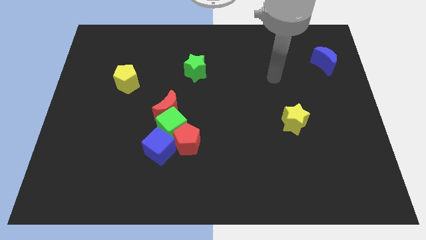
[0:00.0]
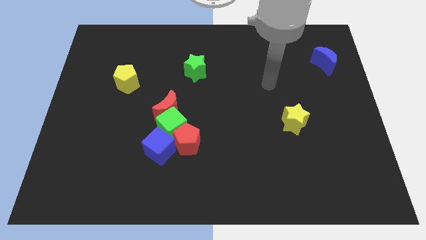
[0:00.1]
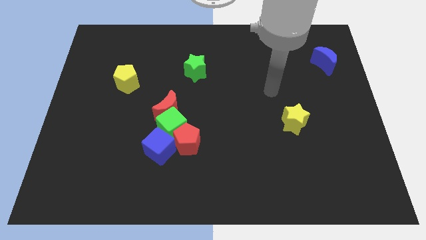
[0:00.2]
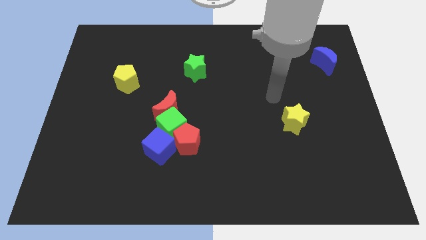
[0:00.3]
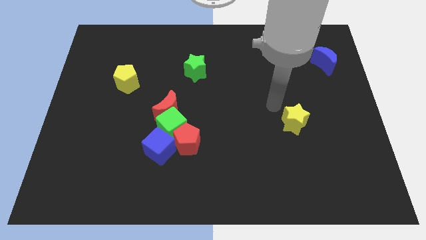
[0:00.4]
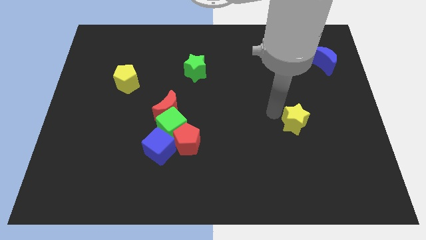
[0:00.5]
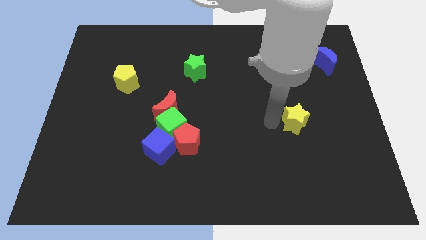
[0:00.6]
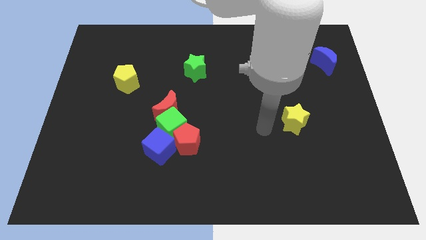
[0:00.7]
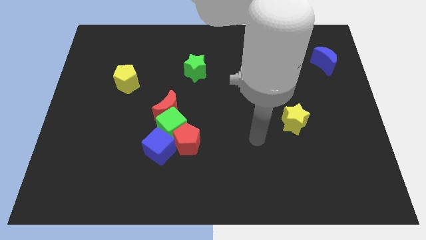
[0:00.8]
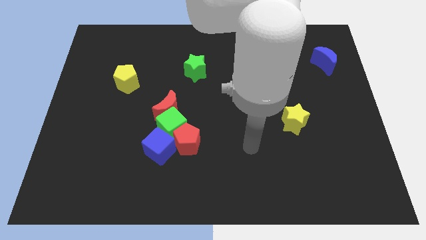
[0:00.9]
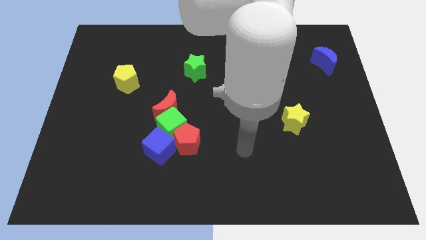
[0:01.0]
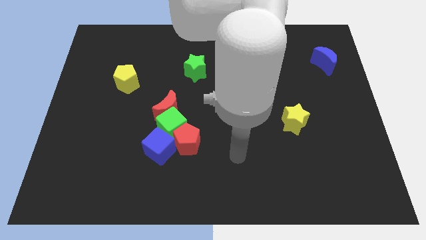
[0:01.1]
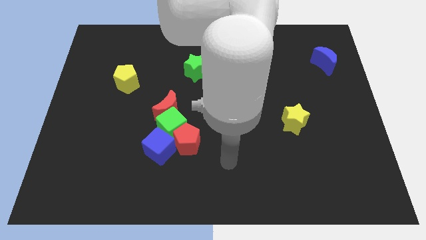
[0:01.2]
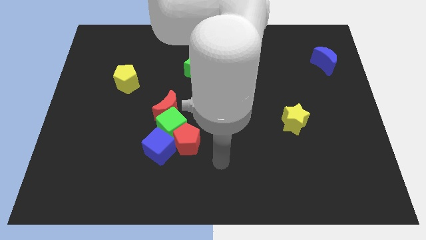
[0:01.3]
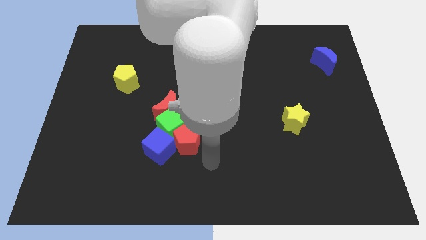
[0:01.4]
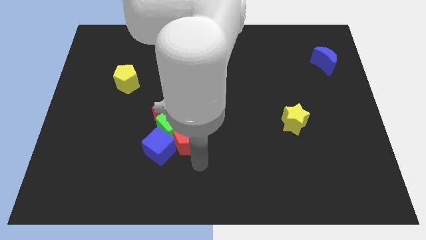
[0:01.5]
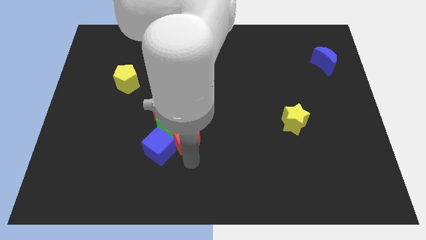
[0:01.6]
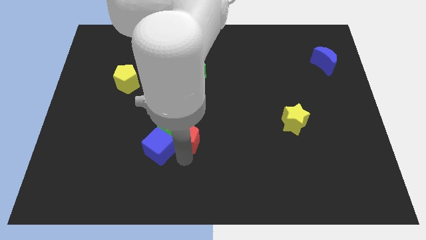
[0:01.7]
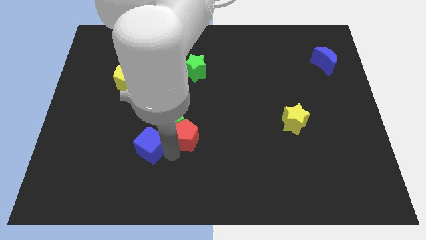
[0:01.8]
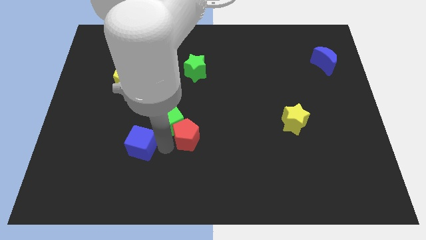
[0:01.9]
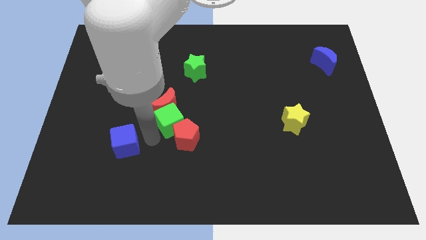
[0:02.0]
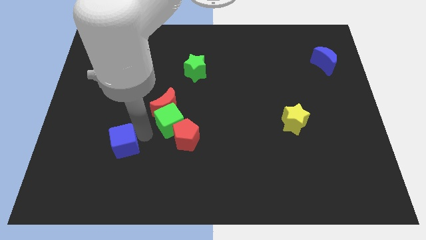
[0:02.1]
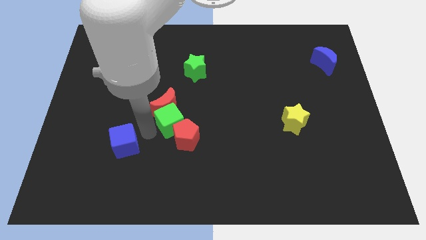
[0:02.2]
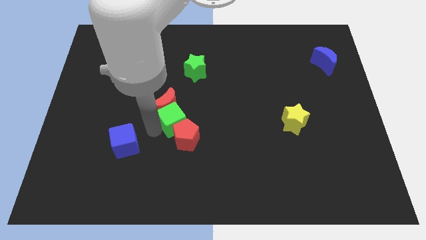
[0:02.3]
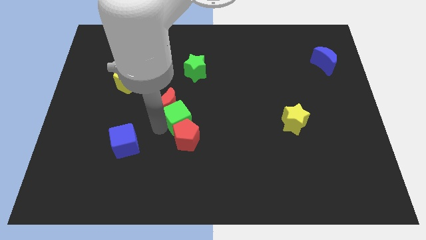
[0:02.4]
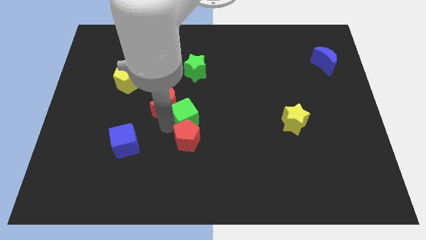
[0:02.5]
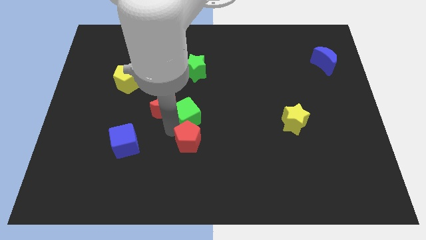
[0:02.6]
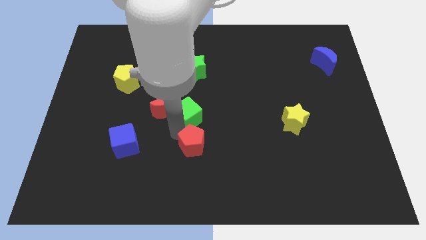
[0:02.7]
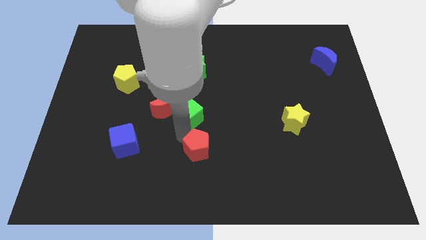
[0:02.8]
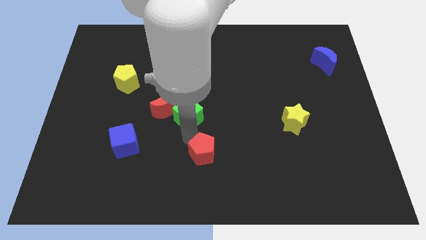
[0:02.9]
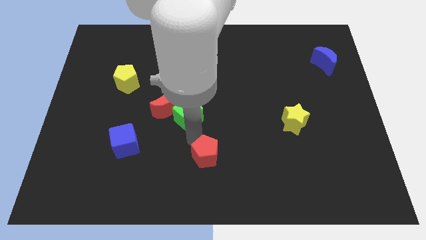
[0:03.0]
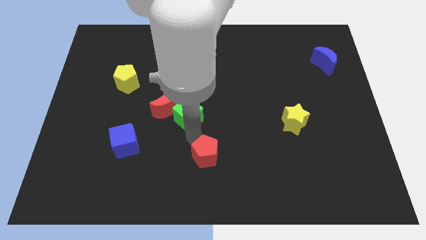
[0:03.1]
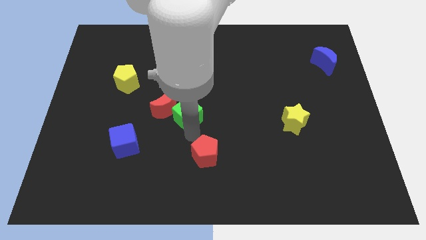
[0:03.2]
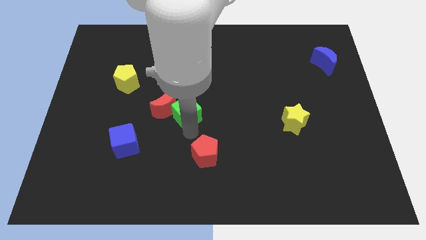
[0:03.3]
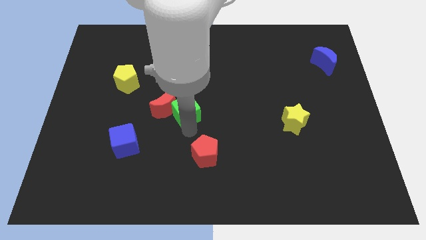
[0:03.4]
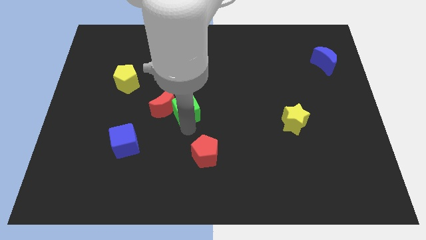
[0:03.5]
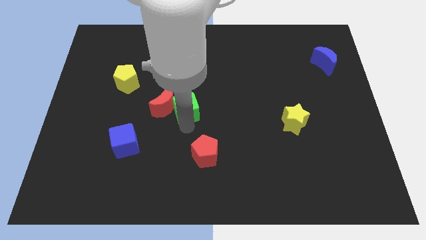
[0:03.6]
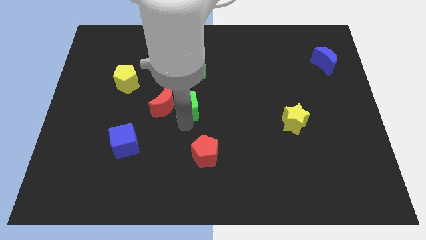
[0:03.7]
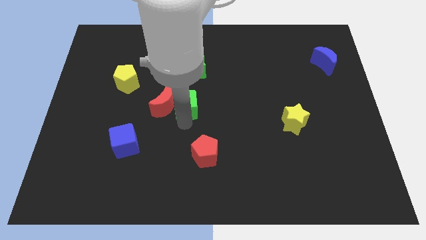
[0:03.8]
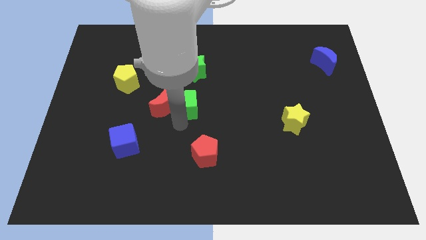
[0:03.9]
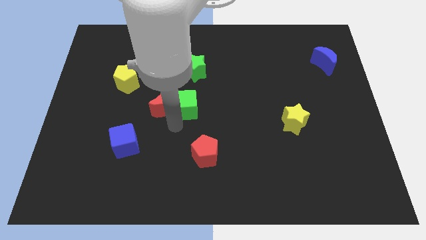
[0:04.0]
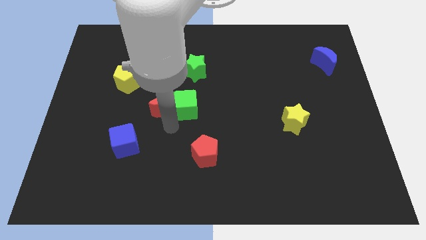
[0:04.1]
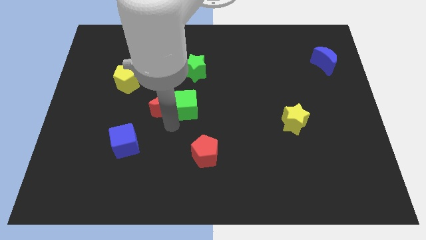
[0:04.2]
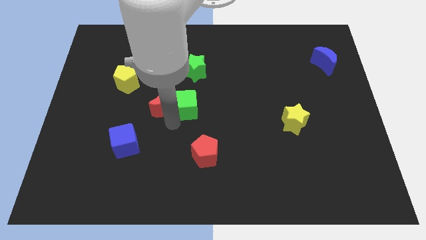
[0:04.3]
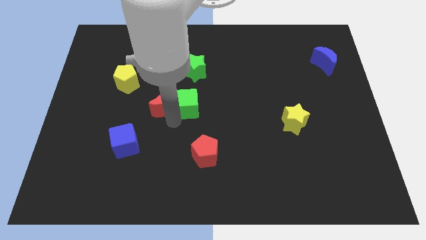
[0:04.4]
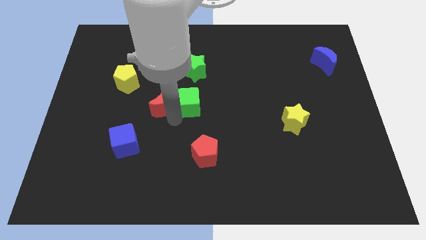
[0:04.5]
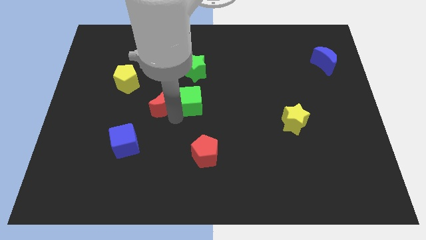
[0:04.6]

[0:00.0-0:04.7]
move the green cube away from the group of blocks

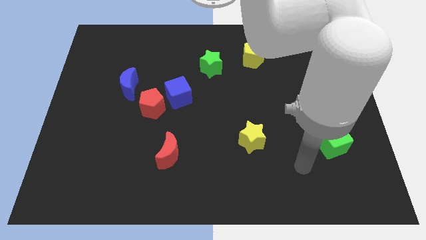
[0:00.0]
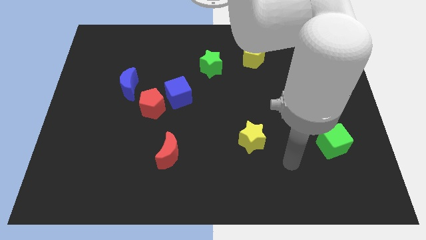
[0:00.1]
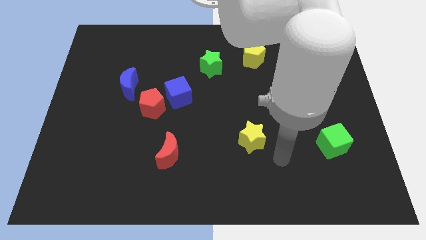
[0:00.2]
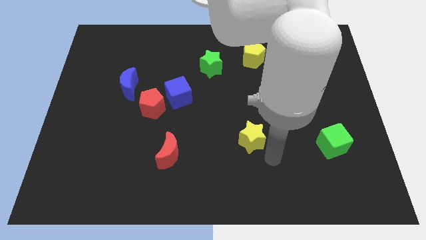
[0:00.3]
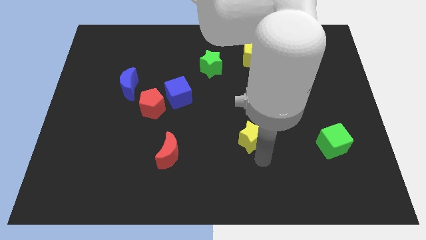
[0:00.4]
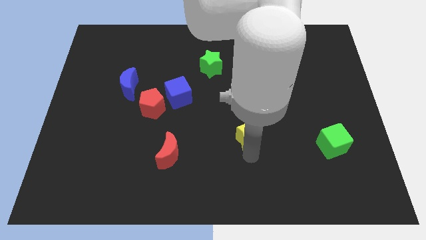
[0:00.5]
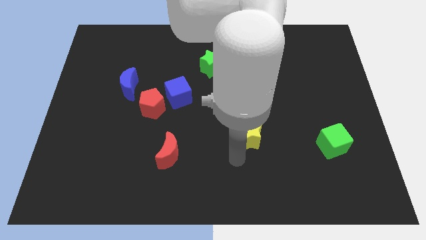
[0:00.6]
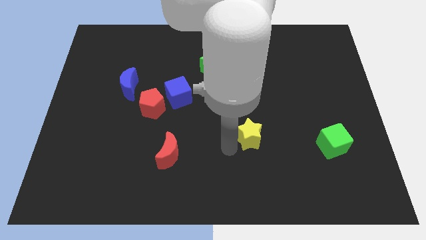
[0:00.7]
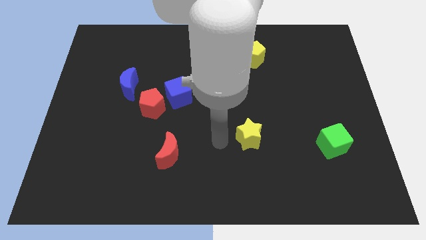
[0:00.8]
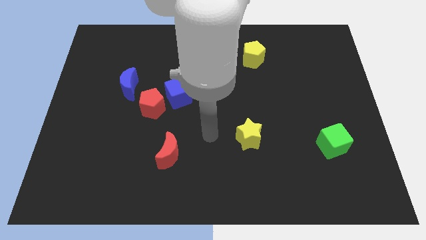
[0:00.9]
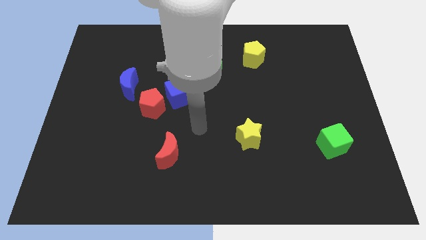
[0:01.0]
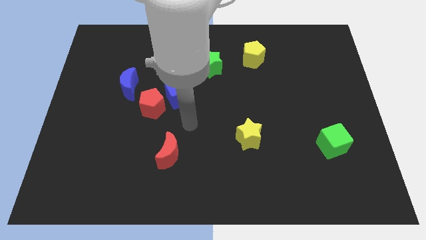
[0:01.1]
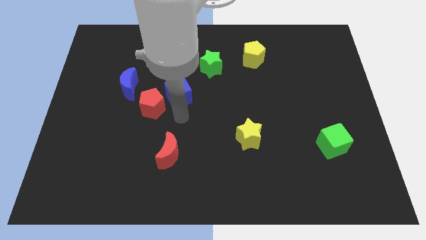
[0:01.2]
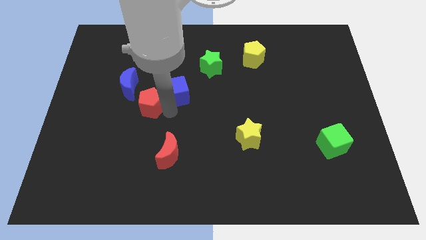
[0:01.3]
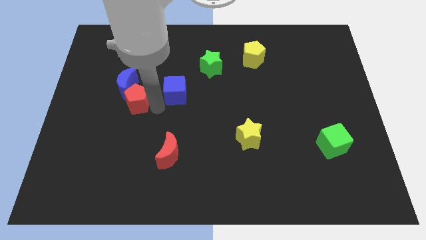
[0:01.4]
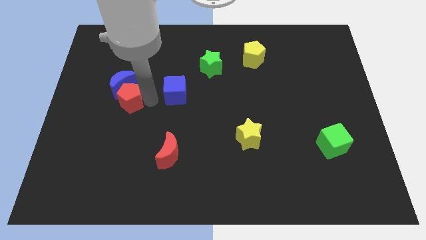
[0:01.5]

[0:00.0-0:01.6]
pull the blue cube apart from the red pentagon

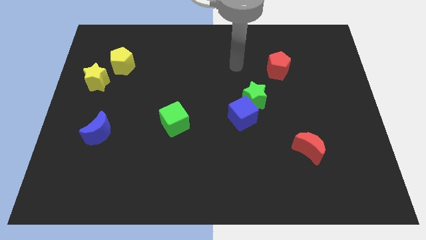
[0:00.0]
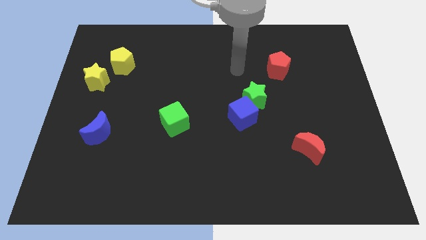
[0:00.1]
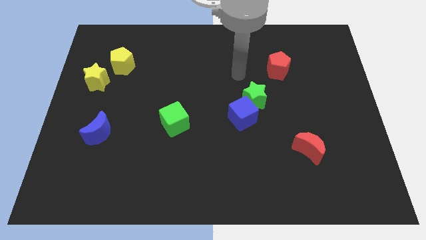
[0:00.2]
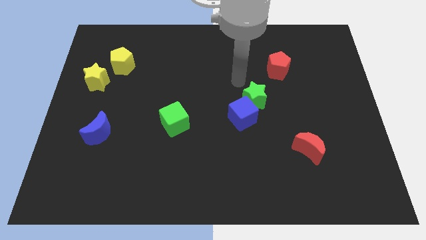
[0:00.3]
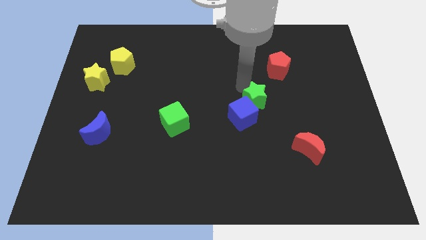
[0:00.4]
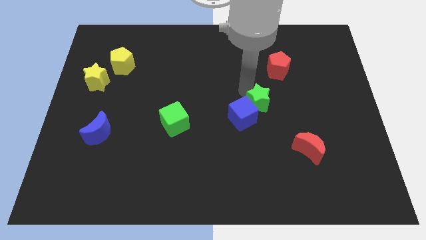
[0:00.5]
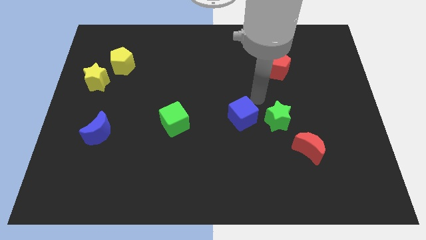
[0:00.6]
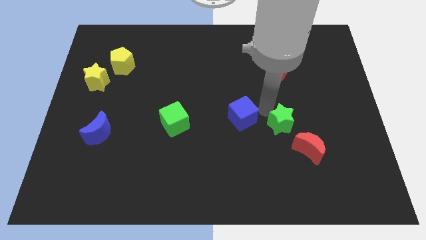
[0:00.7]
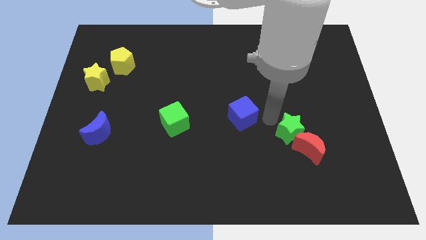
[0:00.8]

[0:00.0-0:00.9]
pull the blue cube apart from the green star

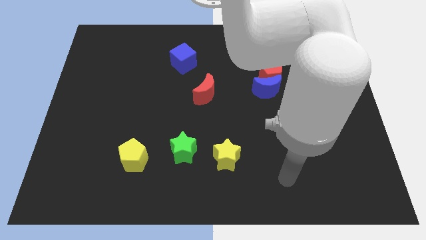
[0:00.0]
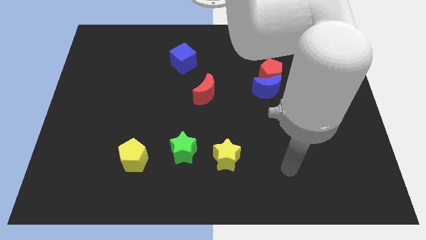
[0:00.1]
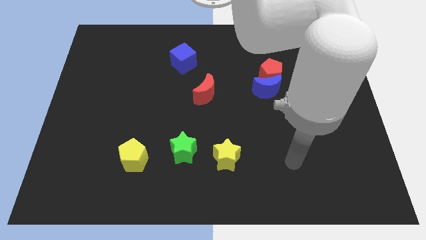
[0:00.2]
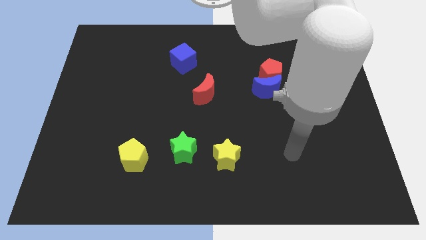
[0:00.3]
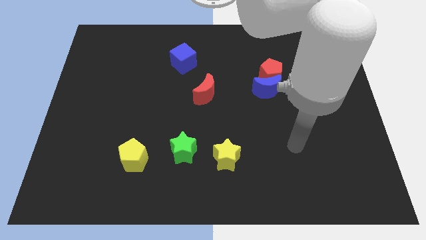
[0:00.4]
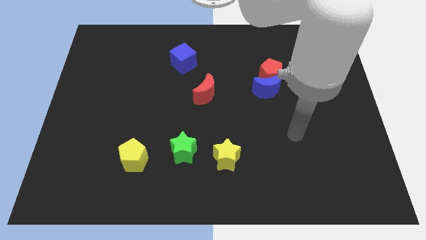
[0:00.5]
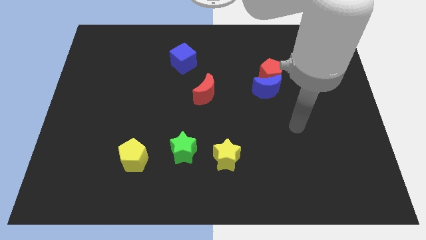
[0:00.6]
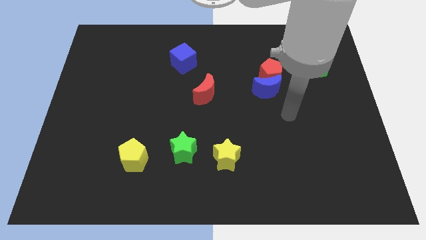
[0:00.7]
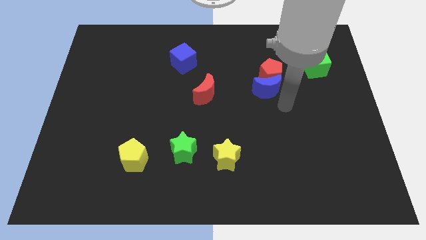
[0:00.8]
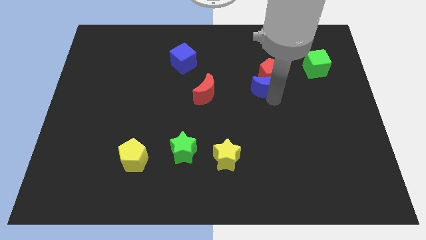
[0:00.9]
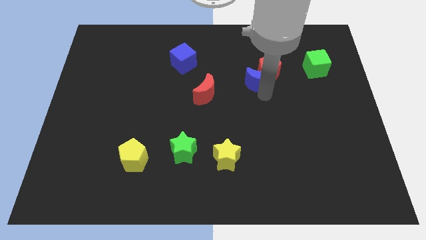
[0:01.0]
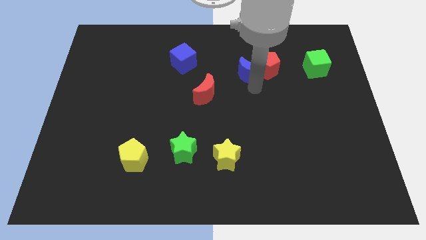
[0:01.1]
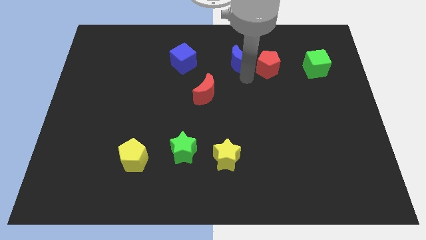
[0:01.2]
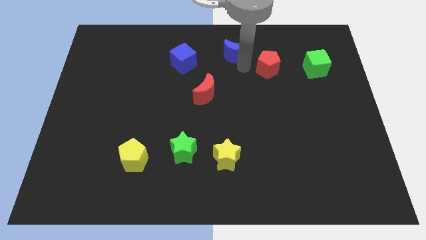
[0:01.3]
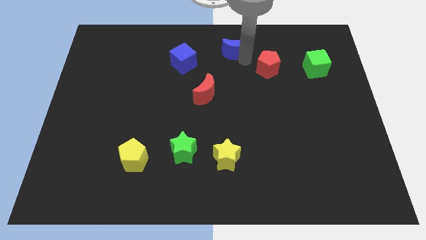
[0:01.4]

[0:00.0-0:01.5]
pull the red pentagon apart from the blue moon

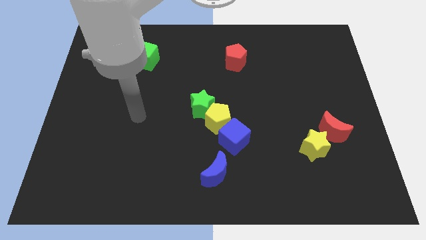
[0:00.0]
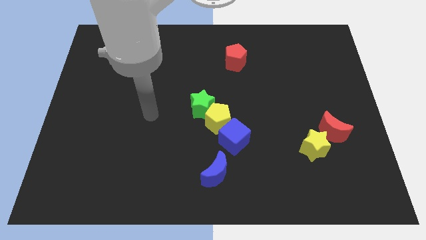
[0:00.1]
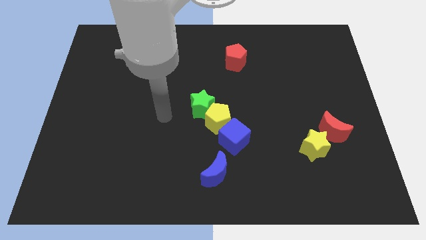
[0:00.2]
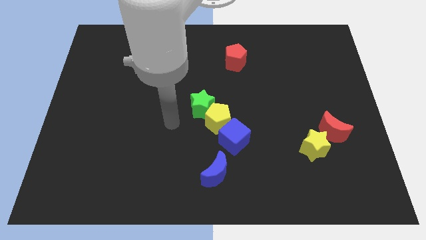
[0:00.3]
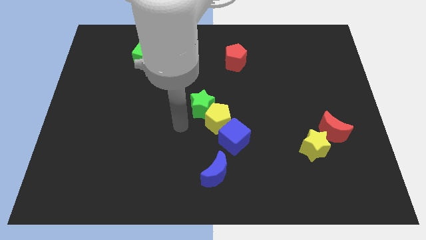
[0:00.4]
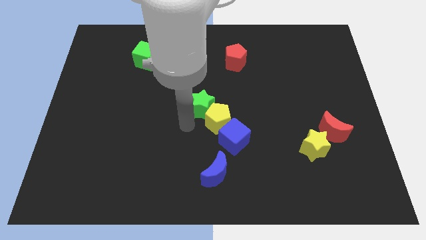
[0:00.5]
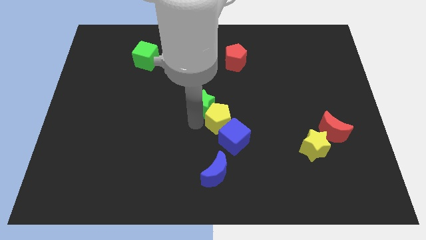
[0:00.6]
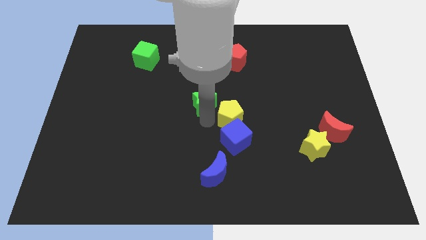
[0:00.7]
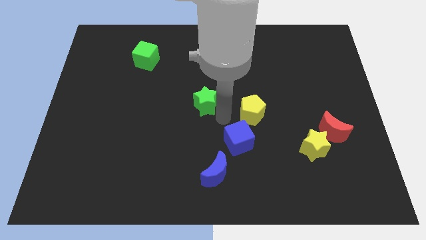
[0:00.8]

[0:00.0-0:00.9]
separate the green star from the yellow pentagon
